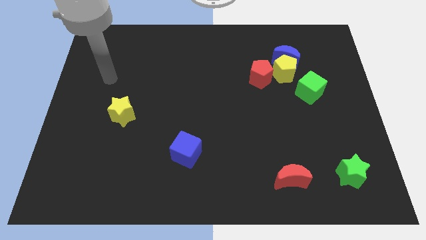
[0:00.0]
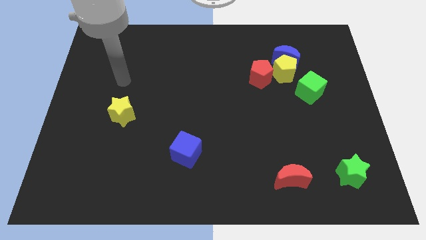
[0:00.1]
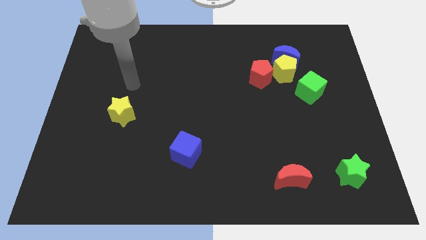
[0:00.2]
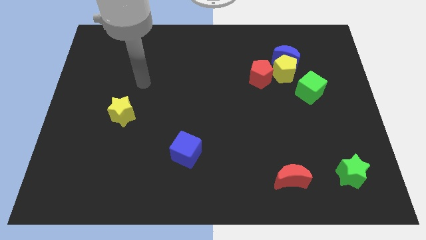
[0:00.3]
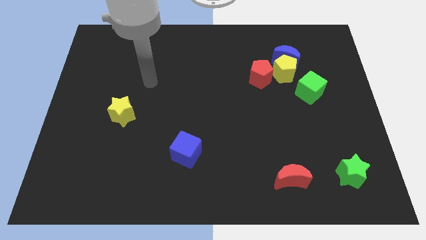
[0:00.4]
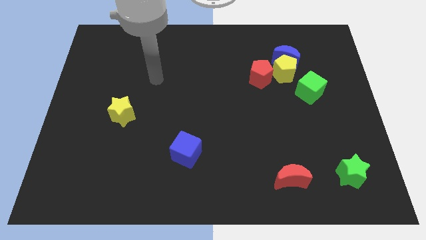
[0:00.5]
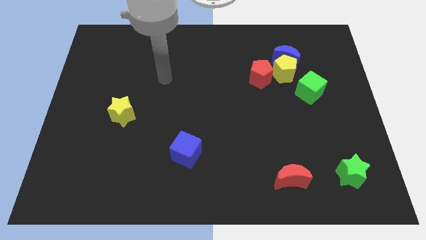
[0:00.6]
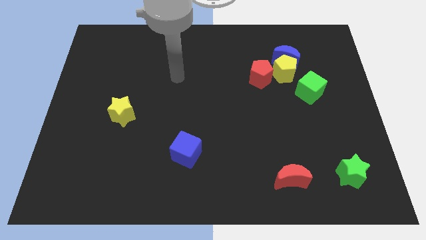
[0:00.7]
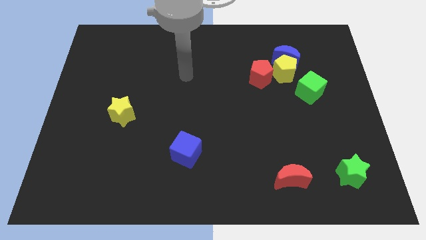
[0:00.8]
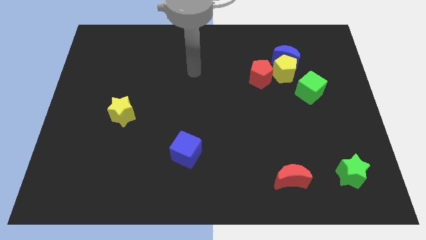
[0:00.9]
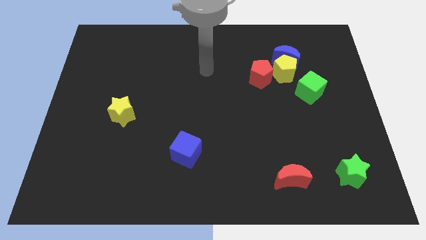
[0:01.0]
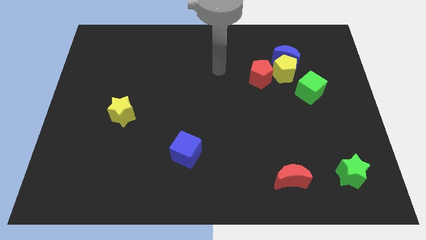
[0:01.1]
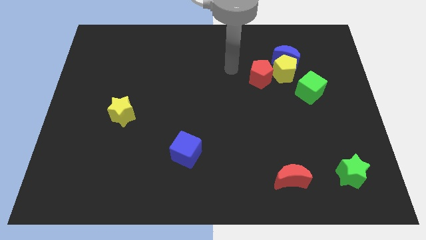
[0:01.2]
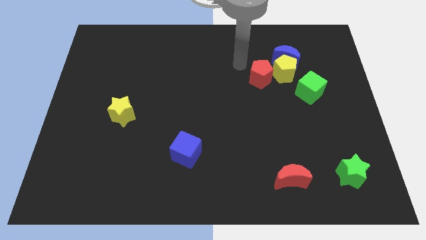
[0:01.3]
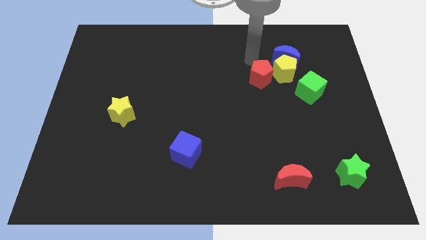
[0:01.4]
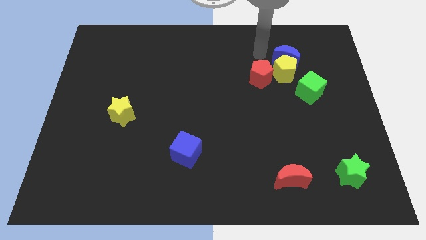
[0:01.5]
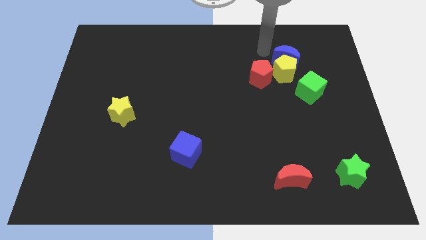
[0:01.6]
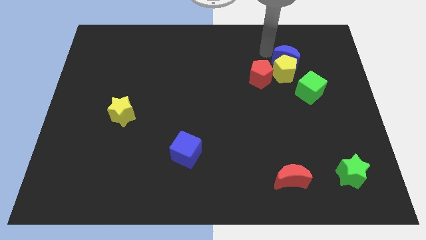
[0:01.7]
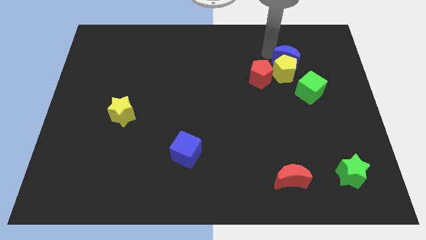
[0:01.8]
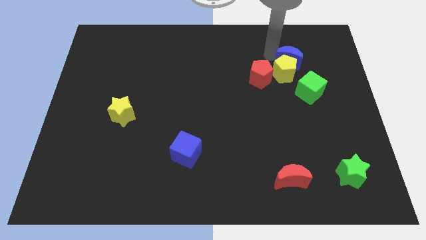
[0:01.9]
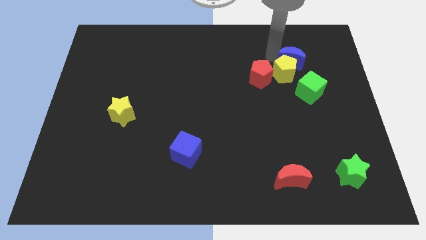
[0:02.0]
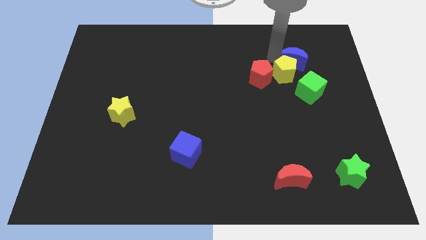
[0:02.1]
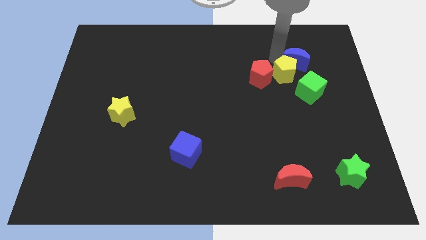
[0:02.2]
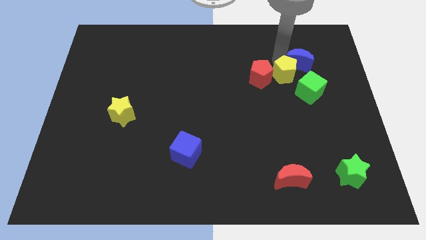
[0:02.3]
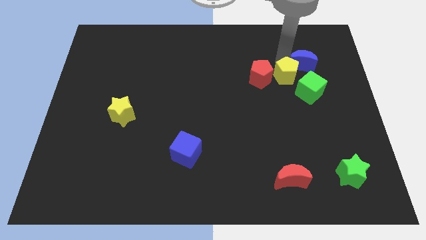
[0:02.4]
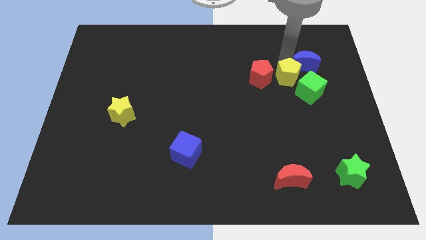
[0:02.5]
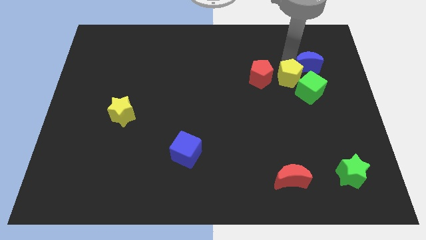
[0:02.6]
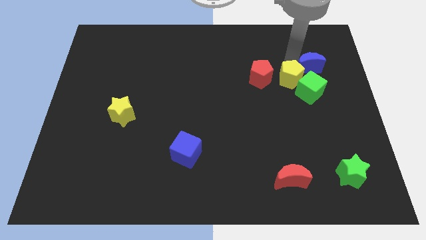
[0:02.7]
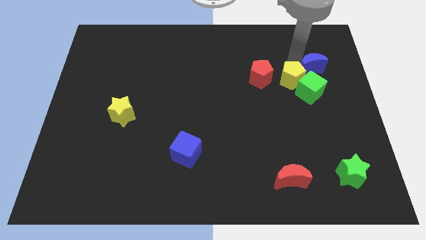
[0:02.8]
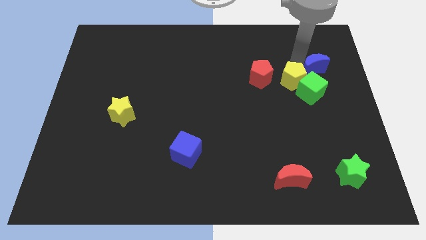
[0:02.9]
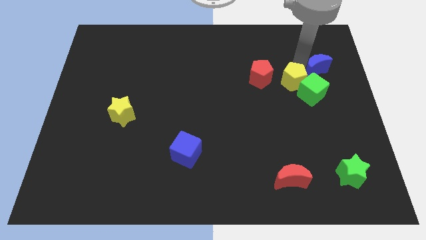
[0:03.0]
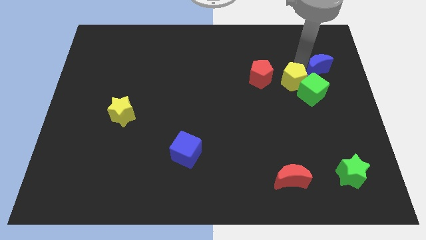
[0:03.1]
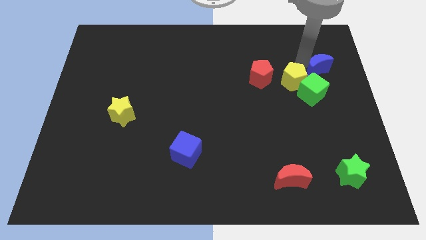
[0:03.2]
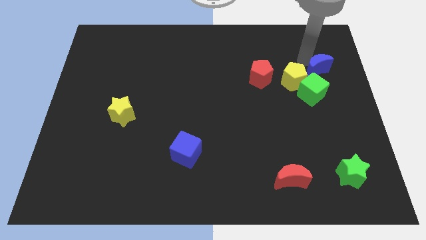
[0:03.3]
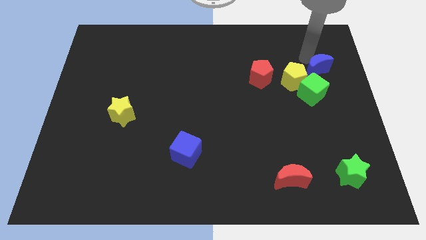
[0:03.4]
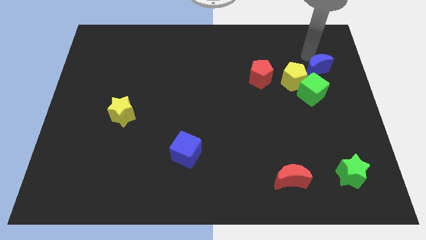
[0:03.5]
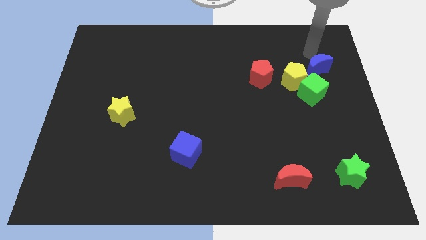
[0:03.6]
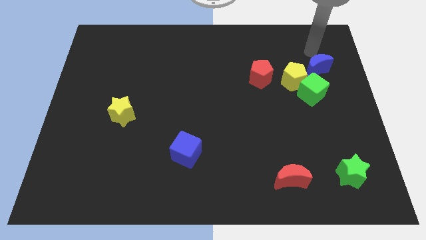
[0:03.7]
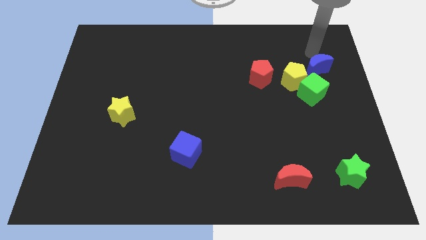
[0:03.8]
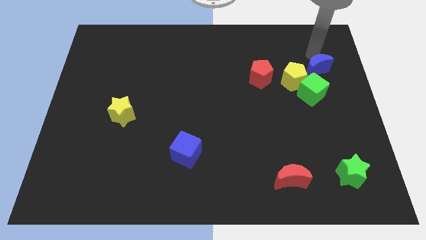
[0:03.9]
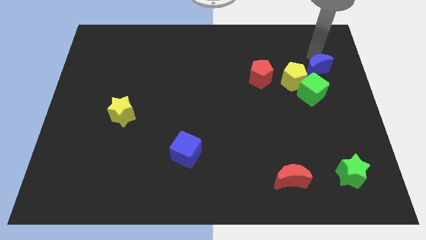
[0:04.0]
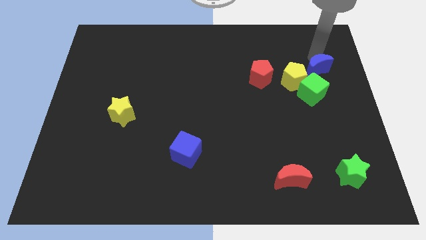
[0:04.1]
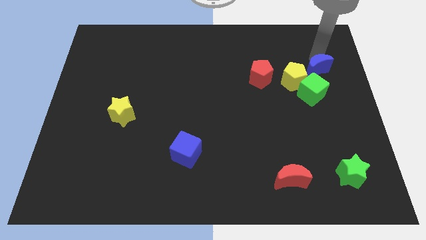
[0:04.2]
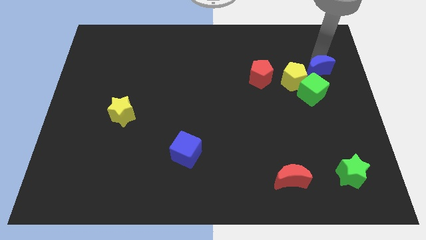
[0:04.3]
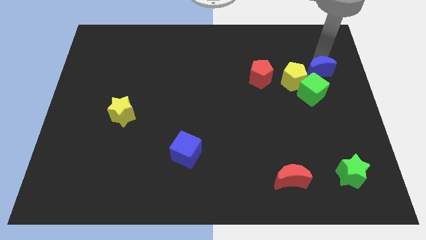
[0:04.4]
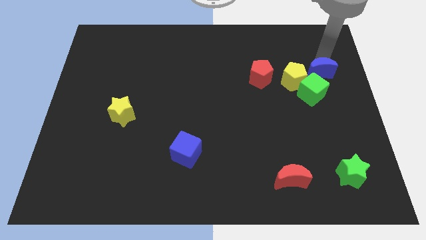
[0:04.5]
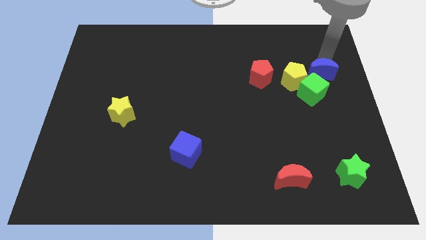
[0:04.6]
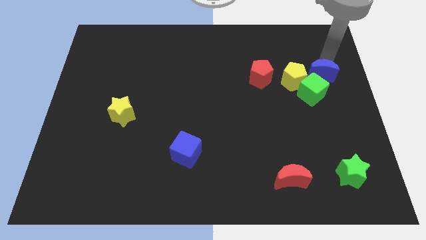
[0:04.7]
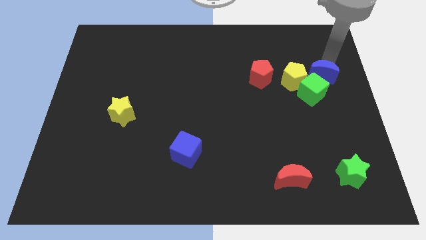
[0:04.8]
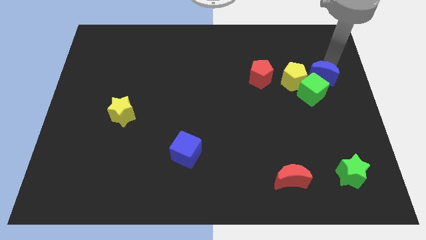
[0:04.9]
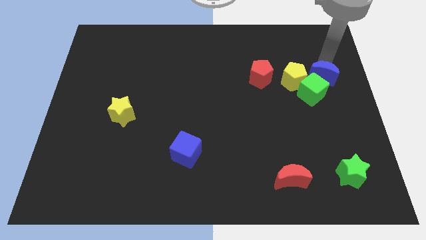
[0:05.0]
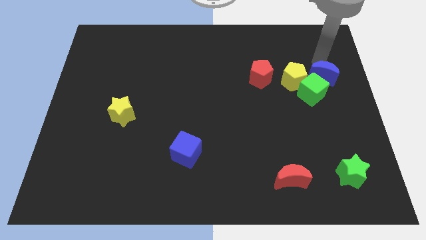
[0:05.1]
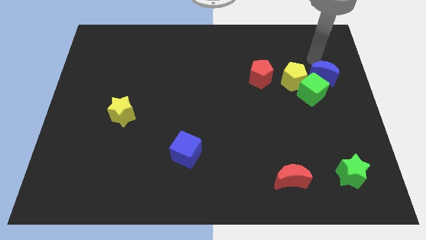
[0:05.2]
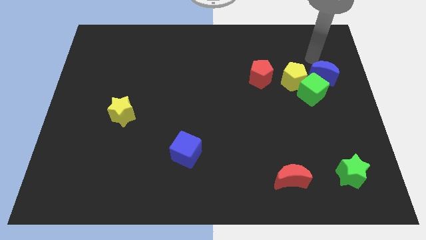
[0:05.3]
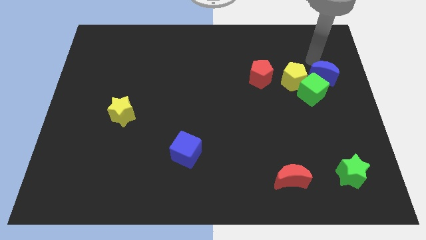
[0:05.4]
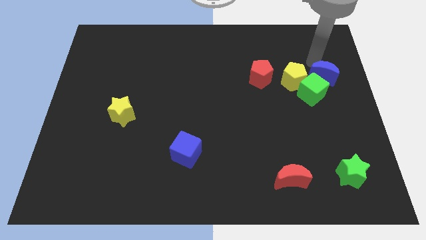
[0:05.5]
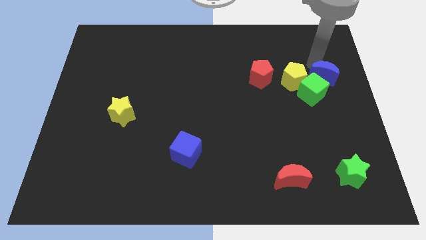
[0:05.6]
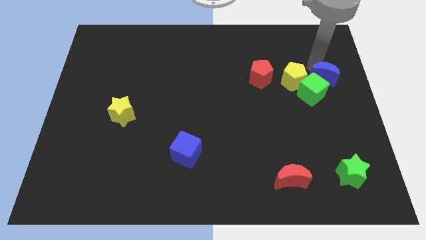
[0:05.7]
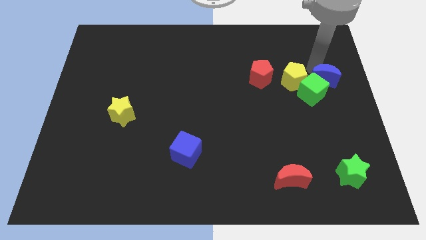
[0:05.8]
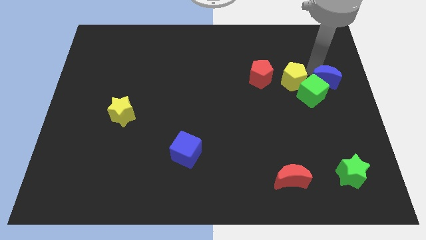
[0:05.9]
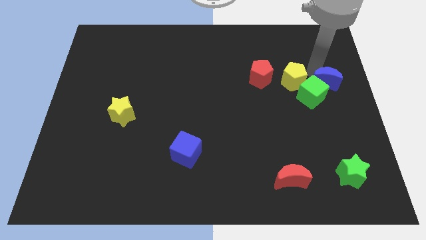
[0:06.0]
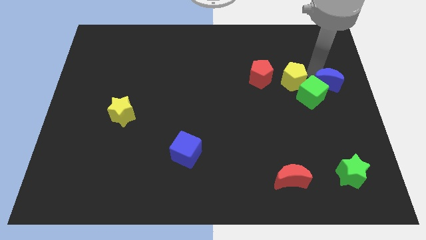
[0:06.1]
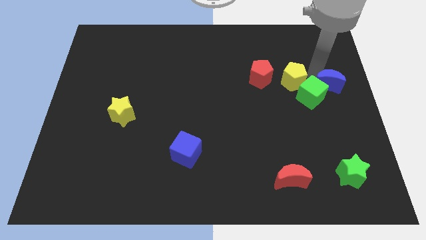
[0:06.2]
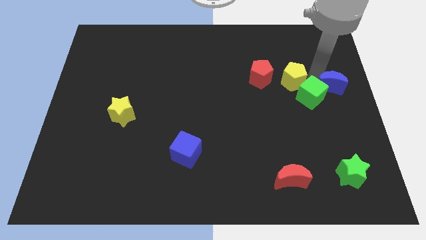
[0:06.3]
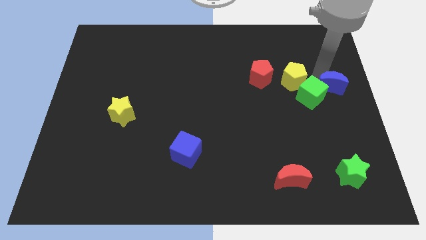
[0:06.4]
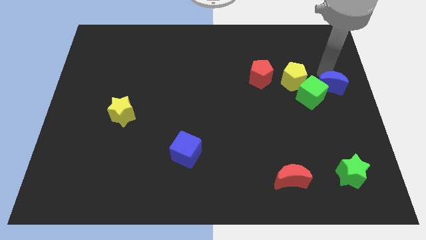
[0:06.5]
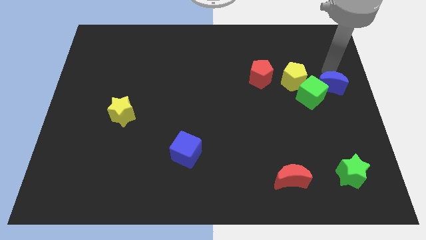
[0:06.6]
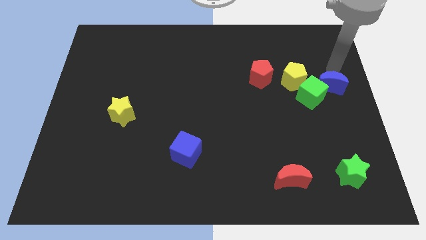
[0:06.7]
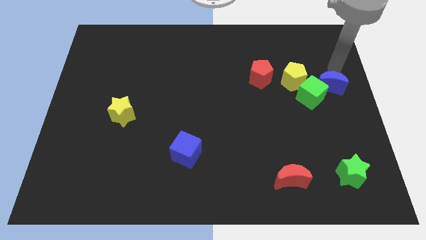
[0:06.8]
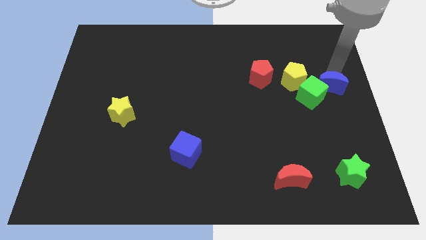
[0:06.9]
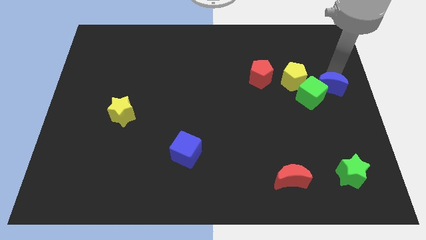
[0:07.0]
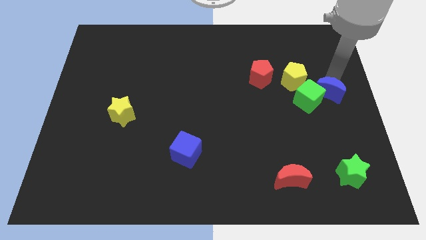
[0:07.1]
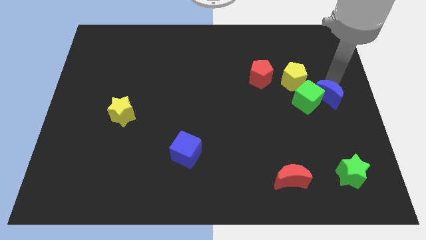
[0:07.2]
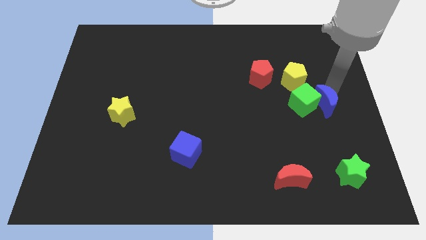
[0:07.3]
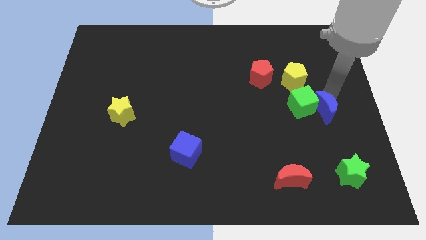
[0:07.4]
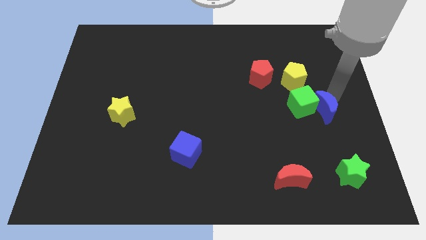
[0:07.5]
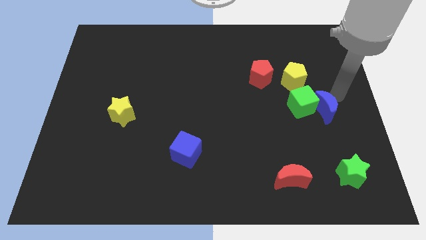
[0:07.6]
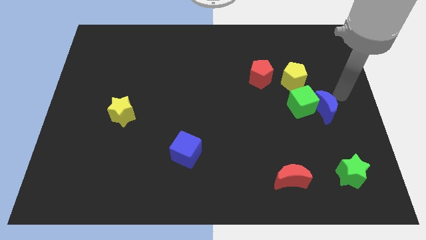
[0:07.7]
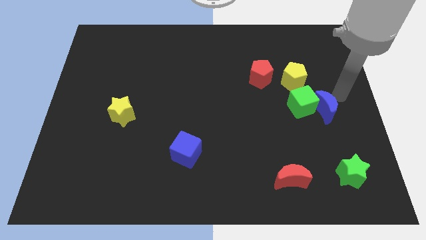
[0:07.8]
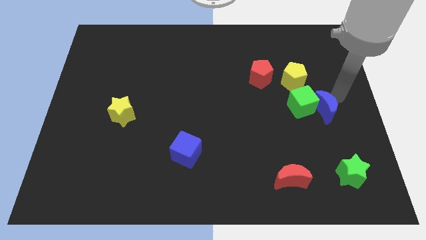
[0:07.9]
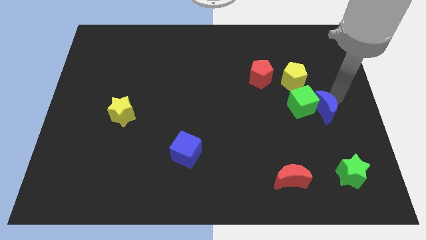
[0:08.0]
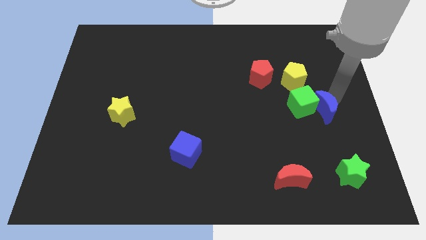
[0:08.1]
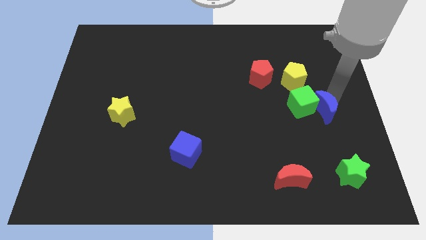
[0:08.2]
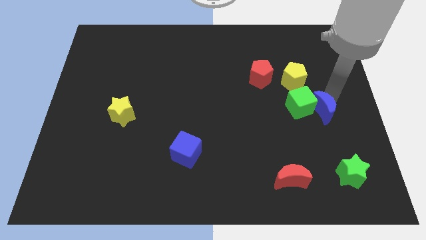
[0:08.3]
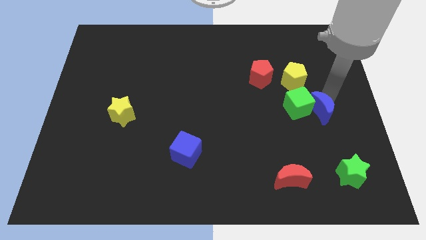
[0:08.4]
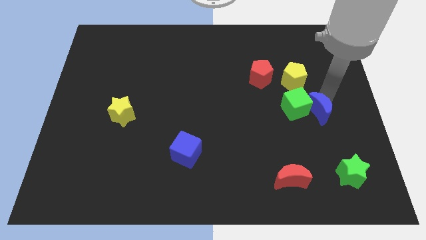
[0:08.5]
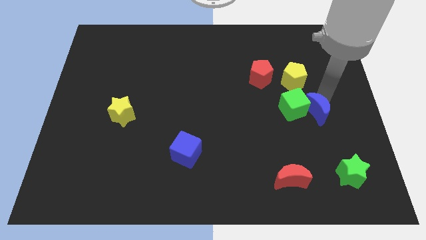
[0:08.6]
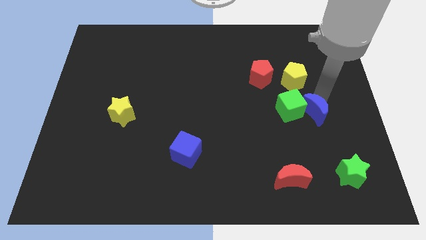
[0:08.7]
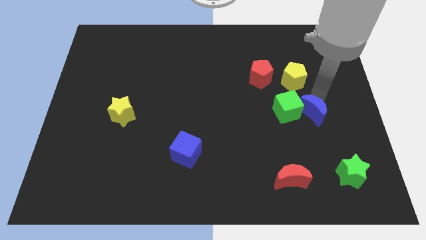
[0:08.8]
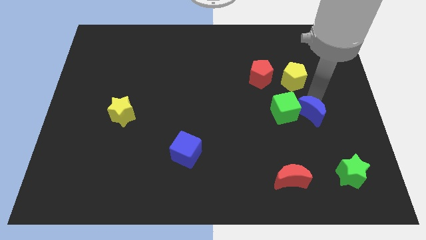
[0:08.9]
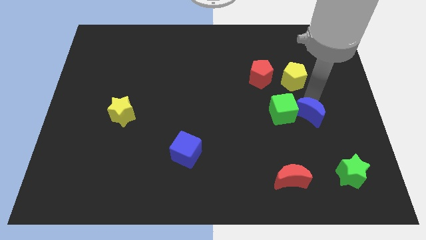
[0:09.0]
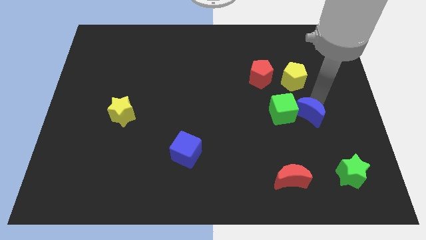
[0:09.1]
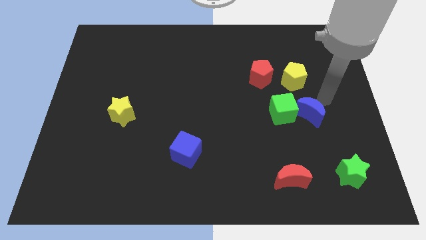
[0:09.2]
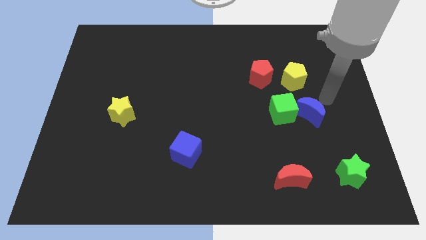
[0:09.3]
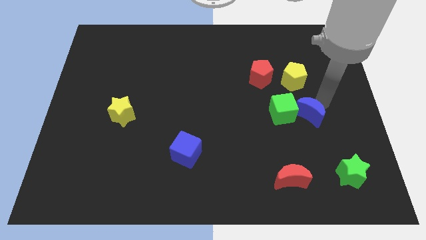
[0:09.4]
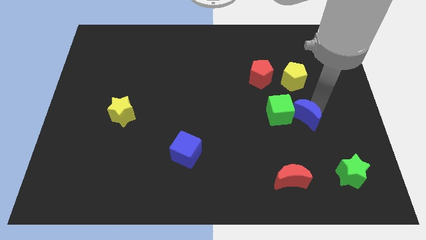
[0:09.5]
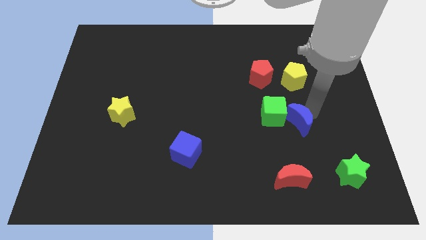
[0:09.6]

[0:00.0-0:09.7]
slide the blue moon to the top side of the red moon
